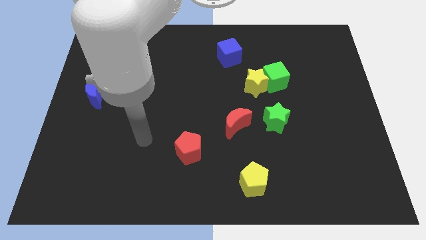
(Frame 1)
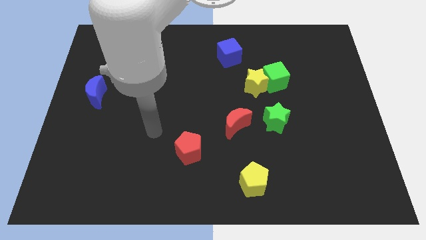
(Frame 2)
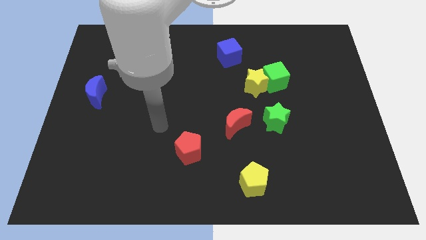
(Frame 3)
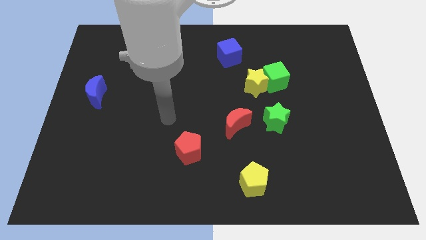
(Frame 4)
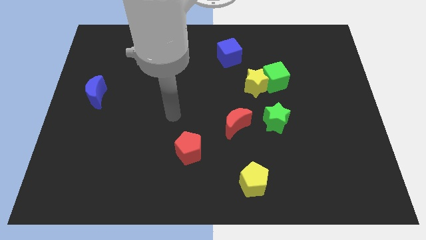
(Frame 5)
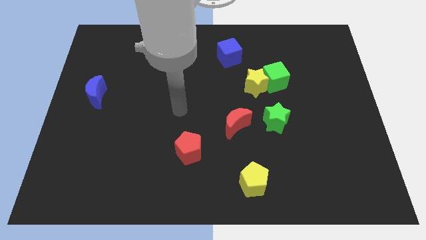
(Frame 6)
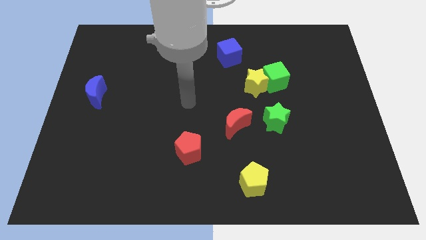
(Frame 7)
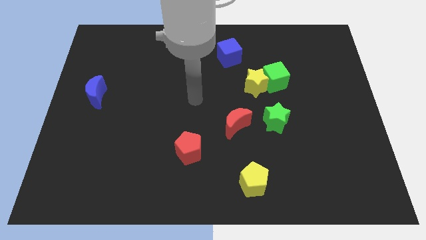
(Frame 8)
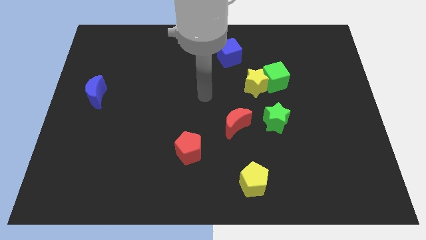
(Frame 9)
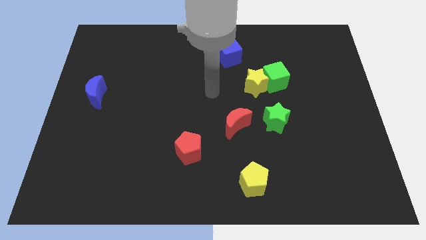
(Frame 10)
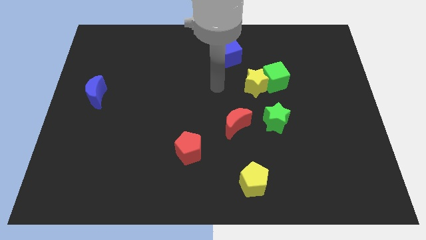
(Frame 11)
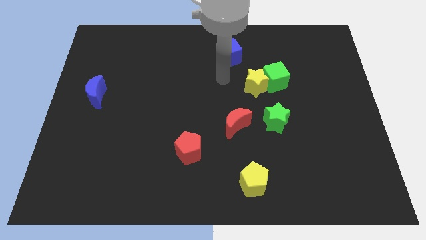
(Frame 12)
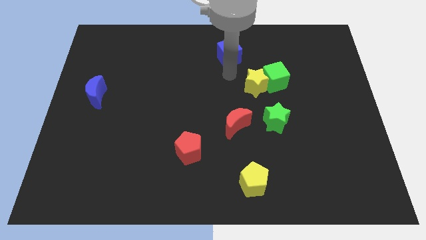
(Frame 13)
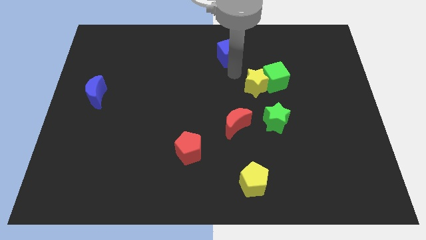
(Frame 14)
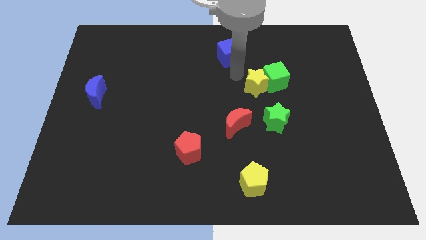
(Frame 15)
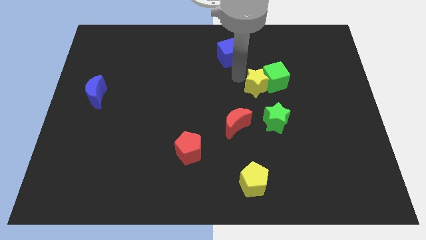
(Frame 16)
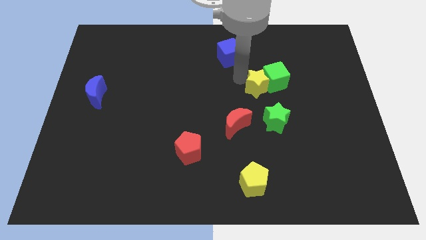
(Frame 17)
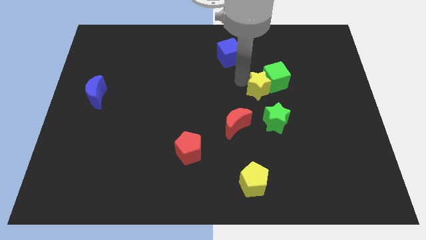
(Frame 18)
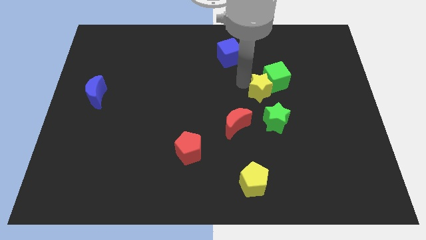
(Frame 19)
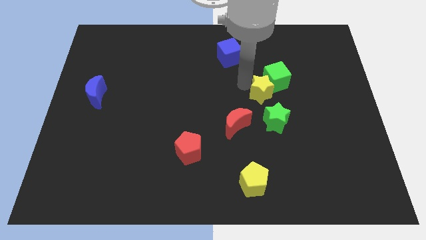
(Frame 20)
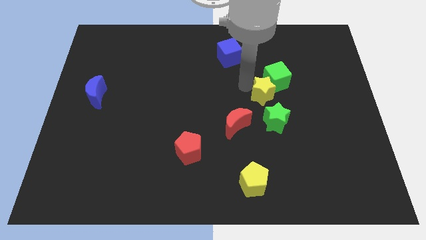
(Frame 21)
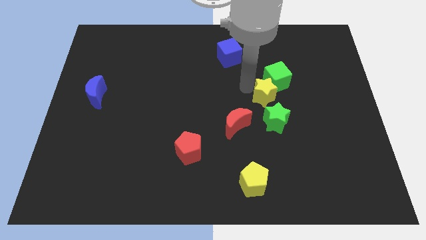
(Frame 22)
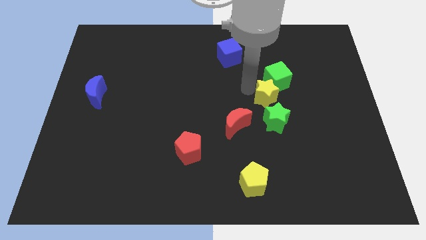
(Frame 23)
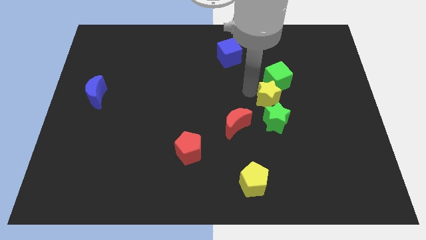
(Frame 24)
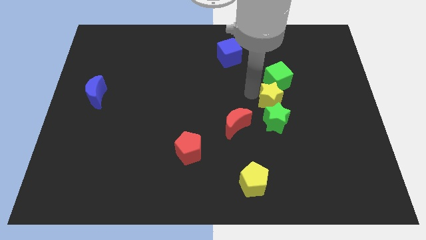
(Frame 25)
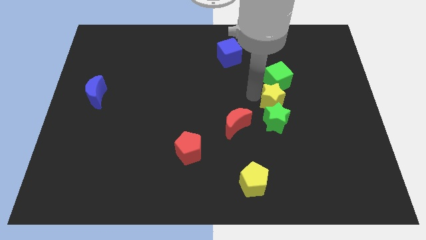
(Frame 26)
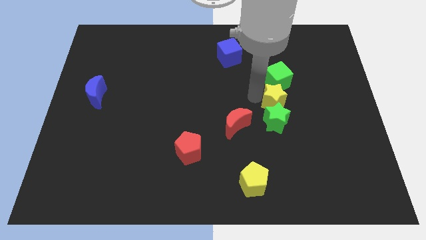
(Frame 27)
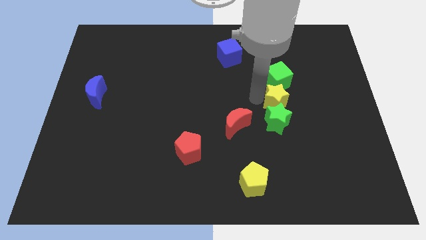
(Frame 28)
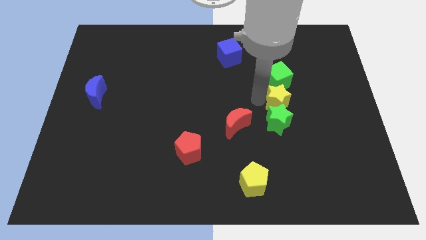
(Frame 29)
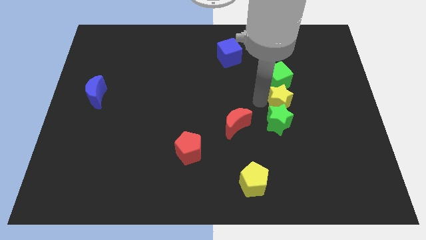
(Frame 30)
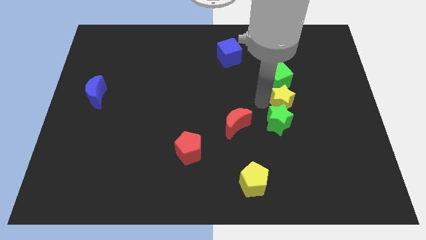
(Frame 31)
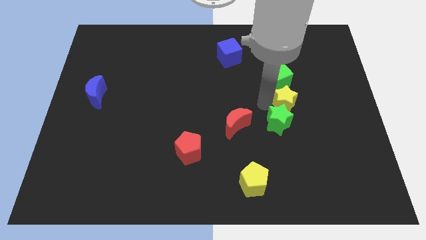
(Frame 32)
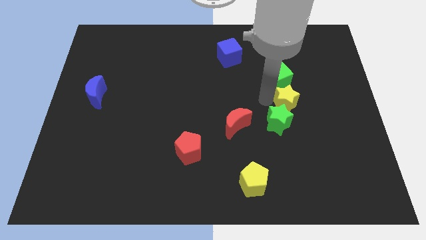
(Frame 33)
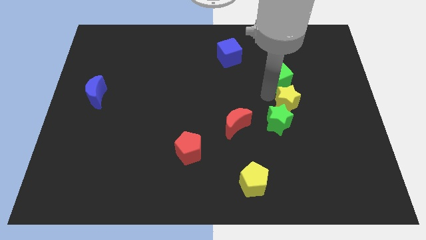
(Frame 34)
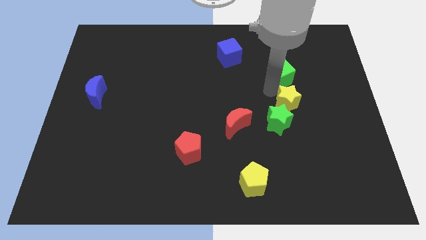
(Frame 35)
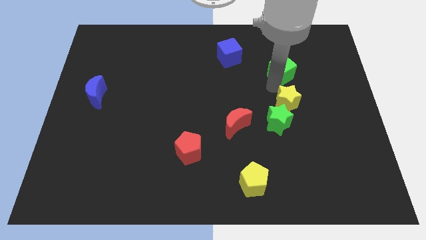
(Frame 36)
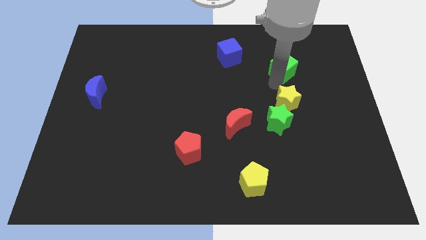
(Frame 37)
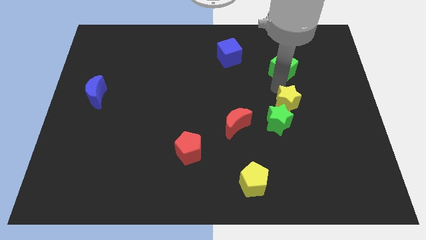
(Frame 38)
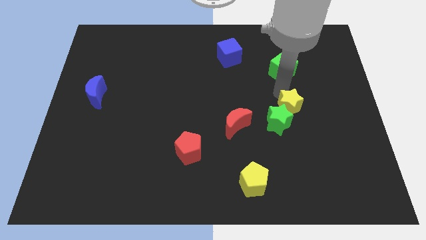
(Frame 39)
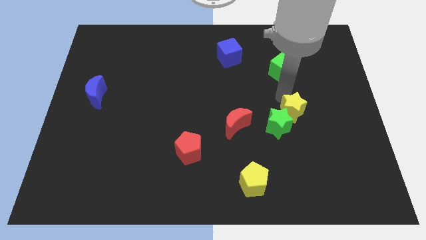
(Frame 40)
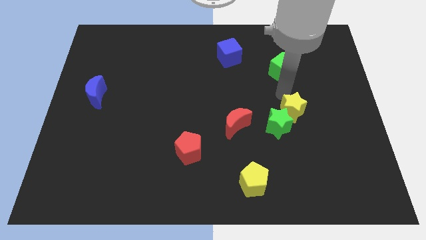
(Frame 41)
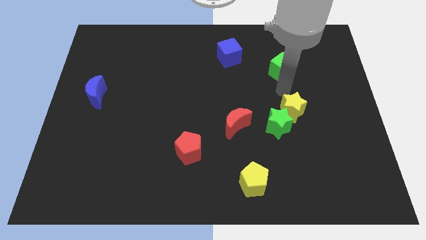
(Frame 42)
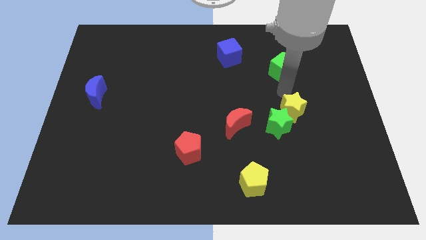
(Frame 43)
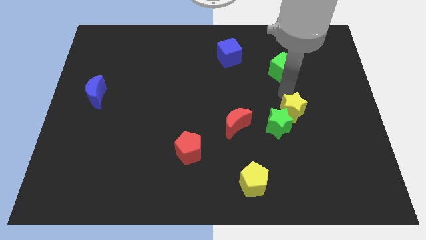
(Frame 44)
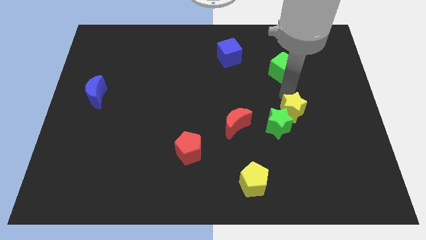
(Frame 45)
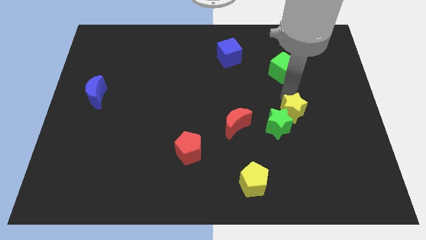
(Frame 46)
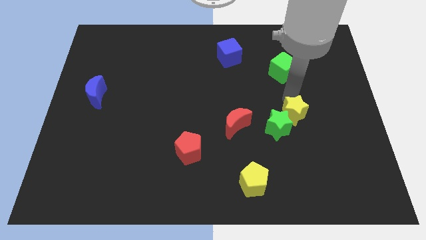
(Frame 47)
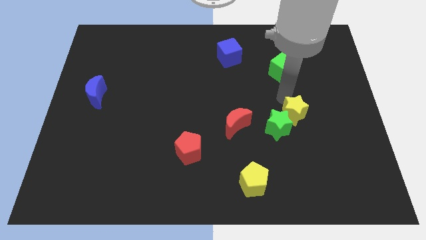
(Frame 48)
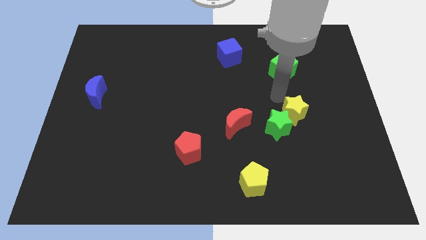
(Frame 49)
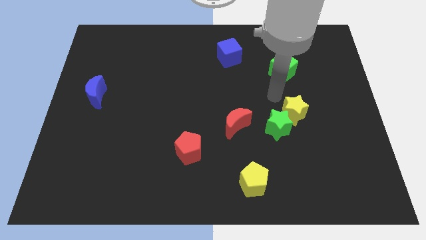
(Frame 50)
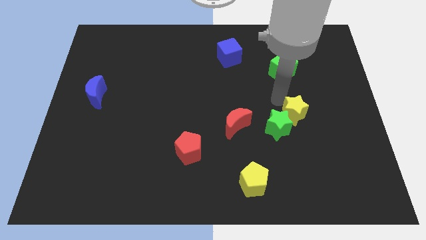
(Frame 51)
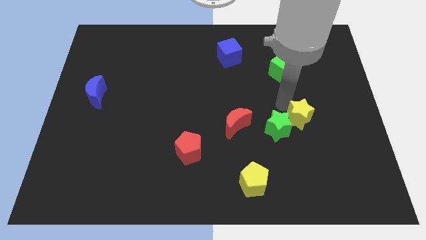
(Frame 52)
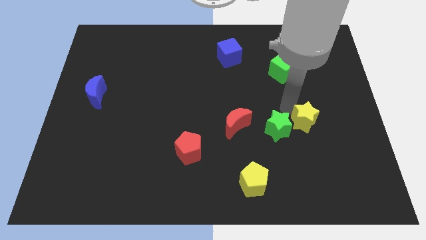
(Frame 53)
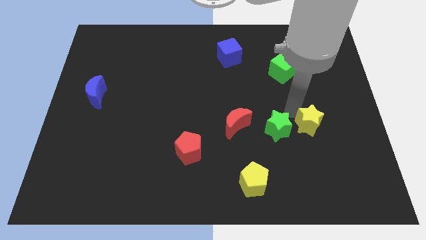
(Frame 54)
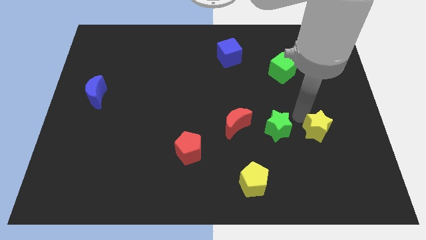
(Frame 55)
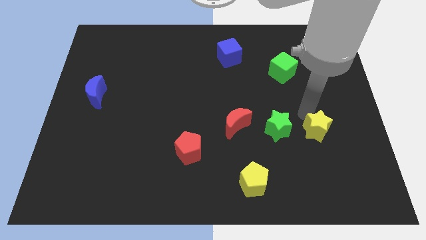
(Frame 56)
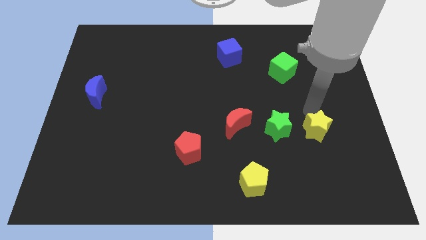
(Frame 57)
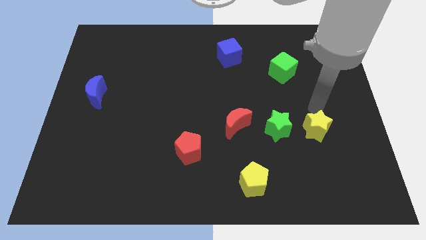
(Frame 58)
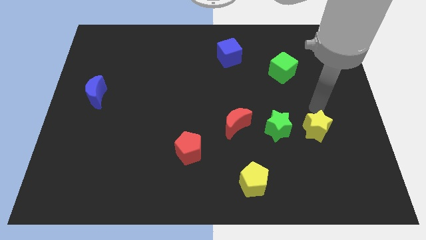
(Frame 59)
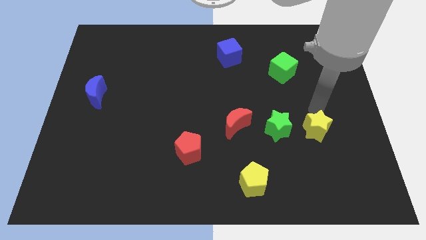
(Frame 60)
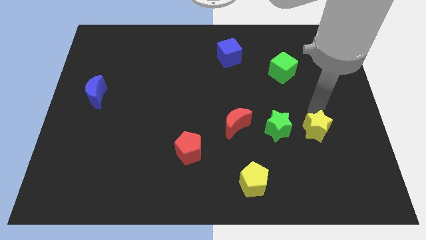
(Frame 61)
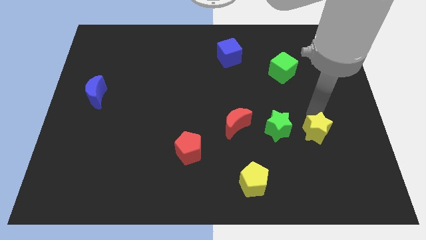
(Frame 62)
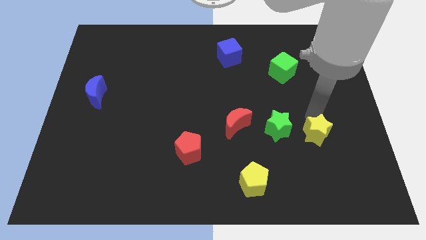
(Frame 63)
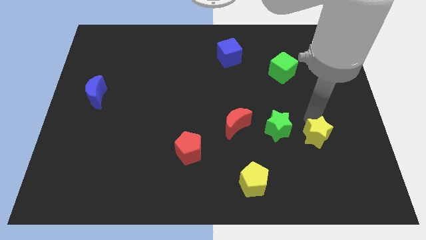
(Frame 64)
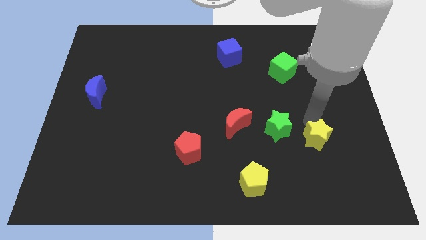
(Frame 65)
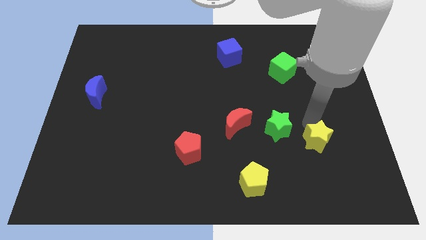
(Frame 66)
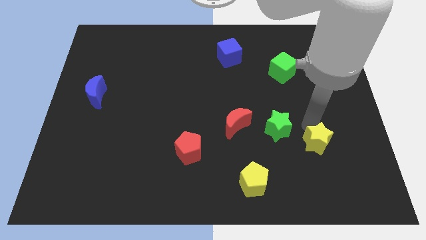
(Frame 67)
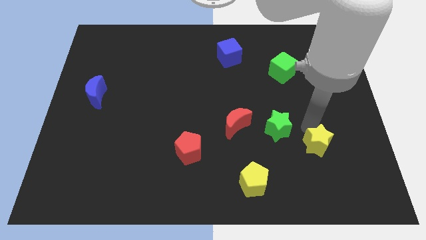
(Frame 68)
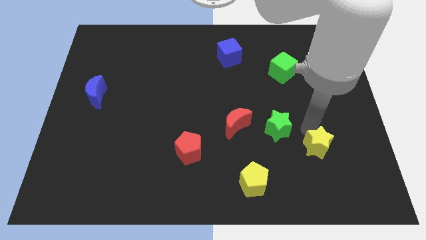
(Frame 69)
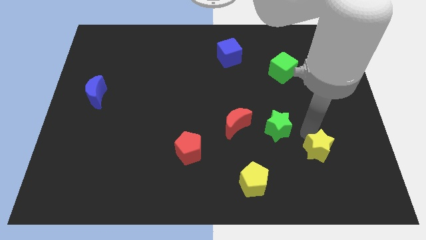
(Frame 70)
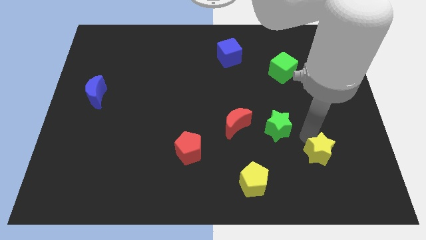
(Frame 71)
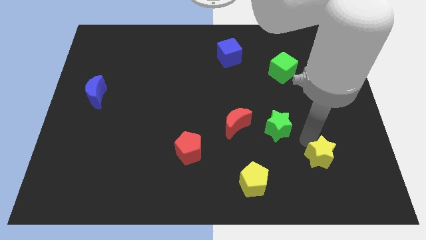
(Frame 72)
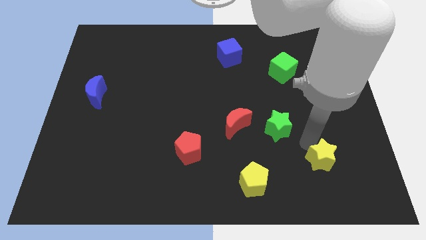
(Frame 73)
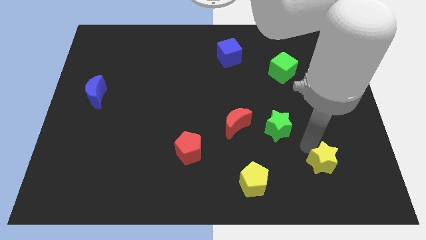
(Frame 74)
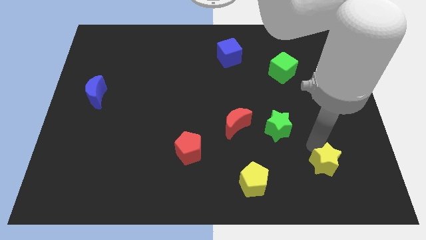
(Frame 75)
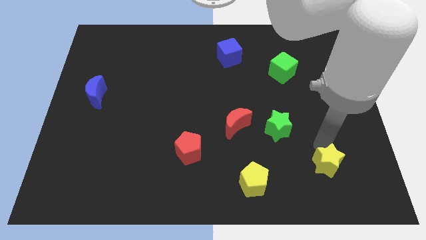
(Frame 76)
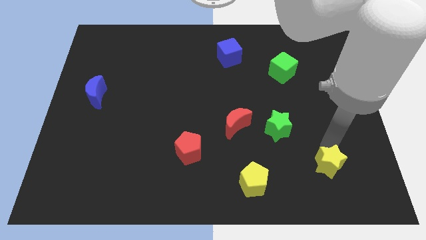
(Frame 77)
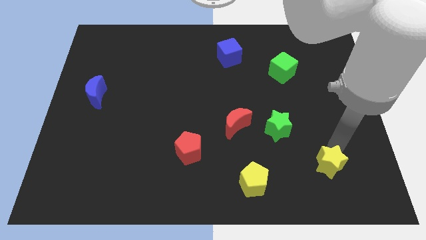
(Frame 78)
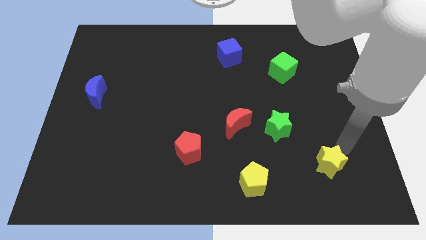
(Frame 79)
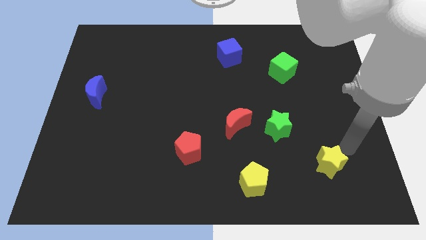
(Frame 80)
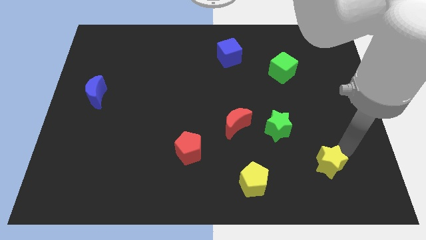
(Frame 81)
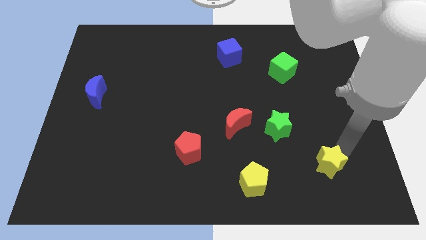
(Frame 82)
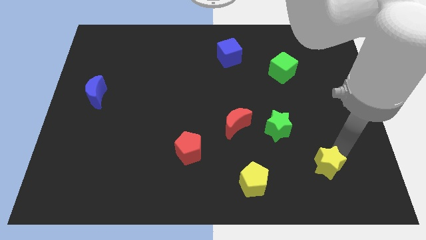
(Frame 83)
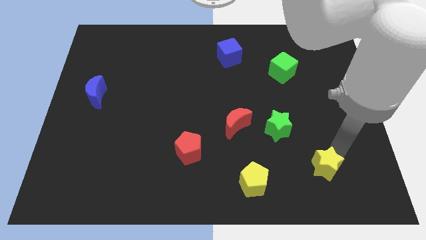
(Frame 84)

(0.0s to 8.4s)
move the yellow star right of the yellow pentagon
